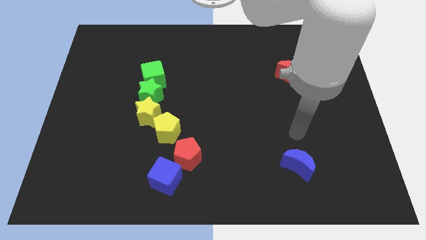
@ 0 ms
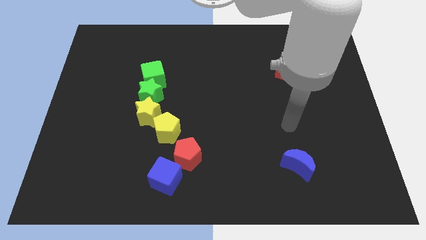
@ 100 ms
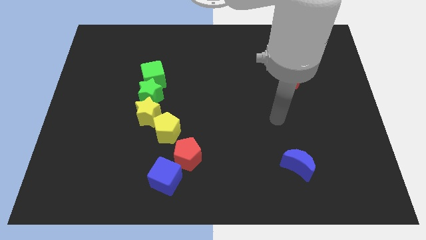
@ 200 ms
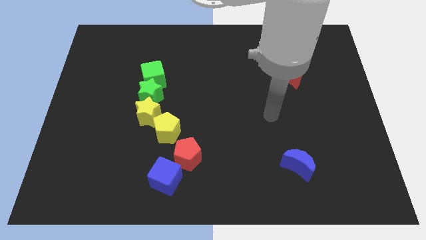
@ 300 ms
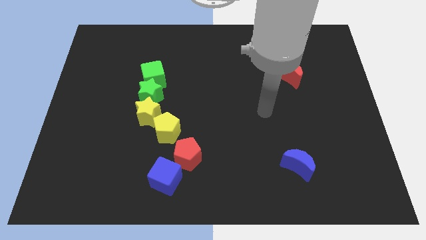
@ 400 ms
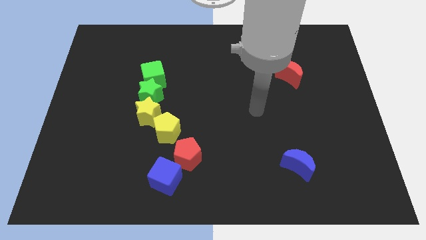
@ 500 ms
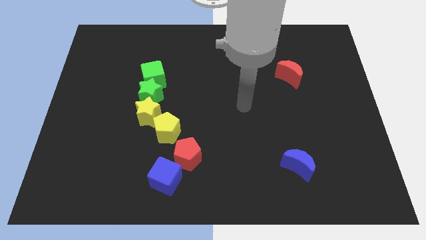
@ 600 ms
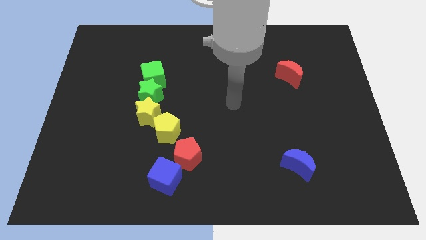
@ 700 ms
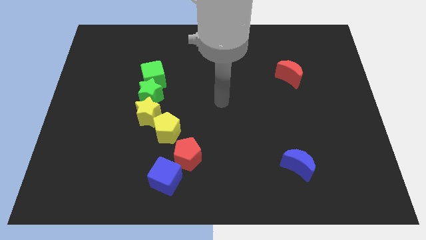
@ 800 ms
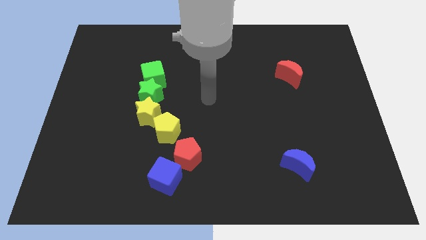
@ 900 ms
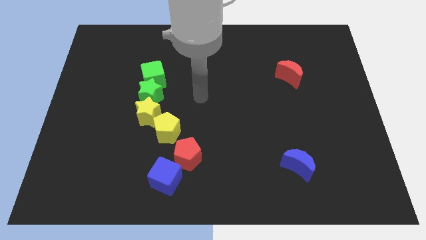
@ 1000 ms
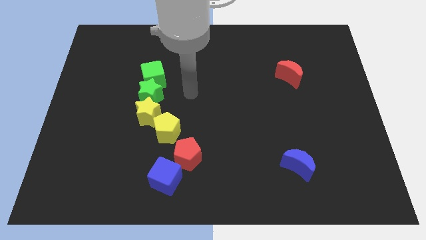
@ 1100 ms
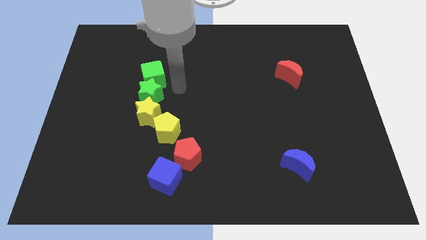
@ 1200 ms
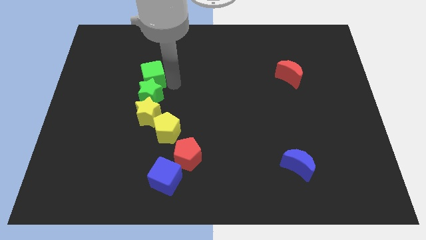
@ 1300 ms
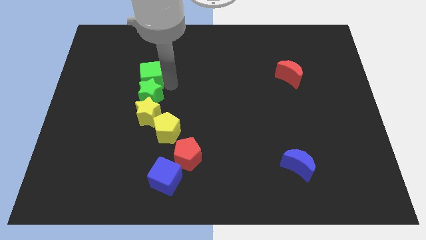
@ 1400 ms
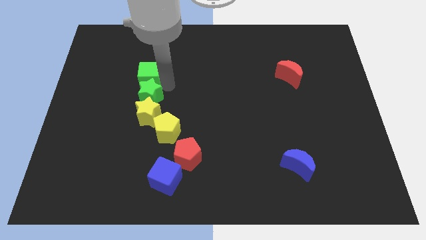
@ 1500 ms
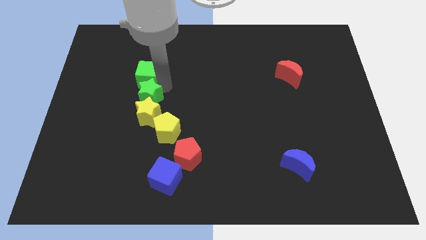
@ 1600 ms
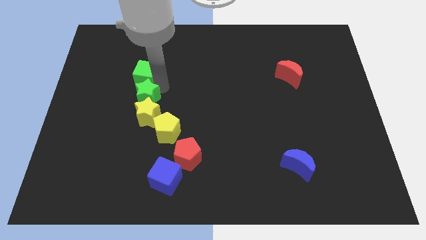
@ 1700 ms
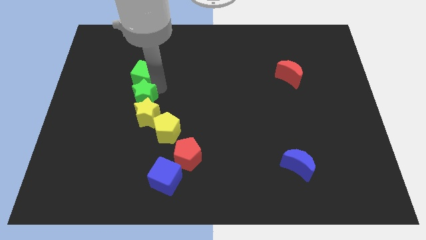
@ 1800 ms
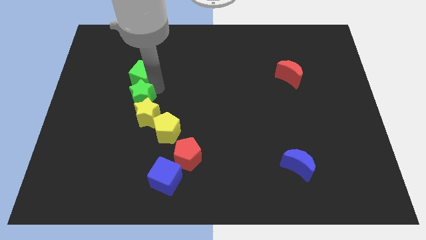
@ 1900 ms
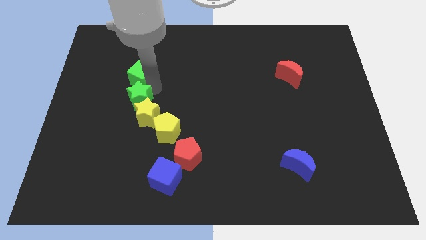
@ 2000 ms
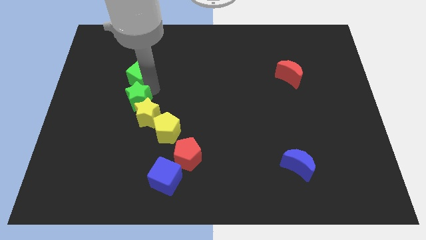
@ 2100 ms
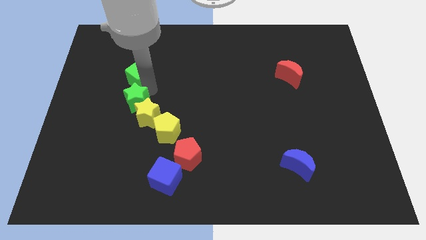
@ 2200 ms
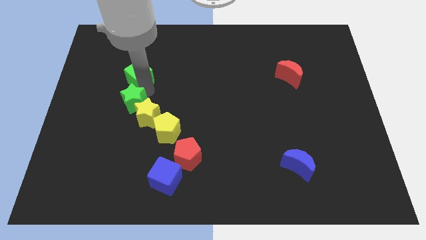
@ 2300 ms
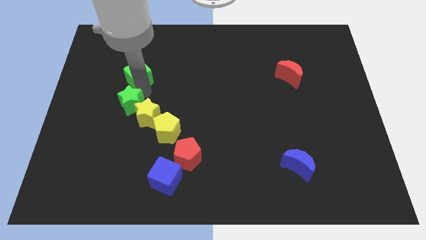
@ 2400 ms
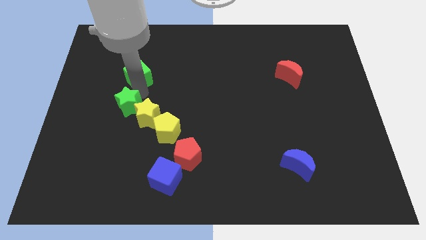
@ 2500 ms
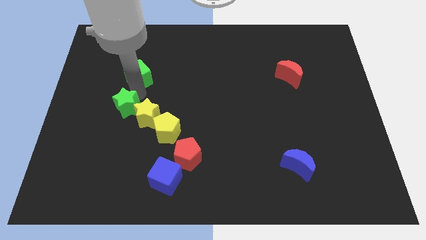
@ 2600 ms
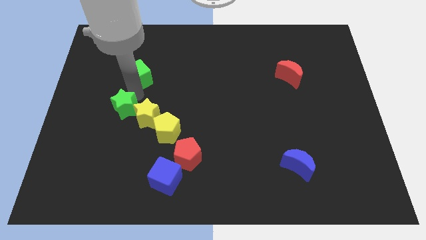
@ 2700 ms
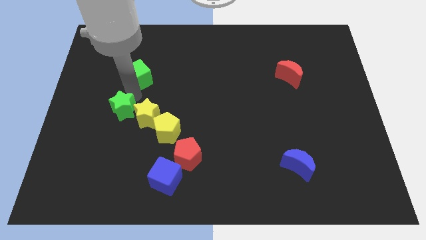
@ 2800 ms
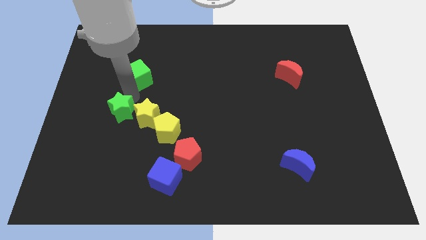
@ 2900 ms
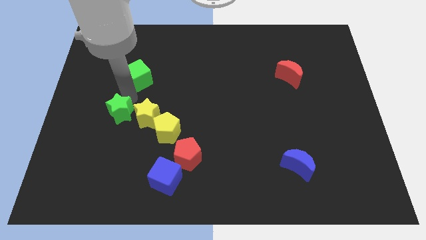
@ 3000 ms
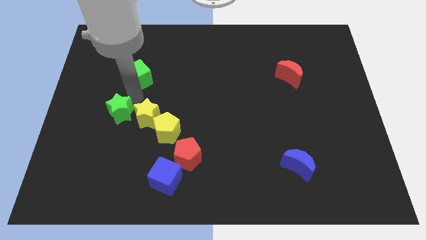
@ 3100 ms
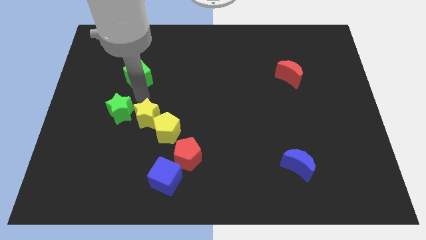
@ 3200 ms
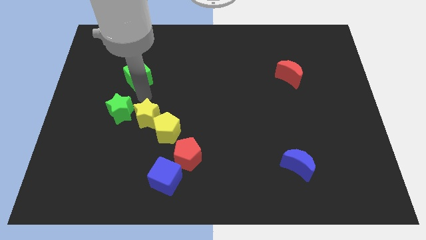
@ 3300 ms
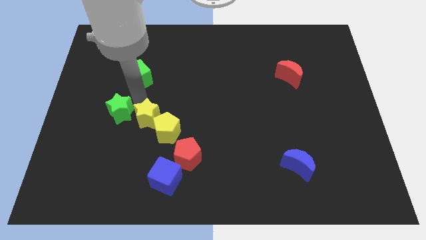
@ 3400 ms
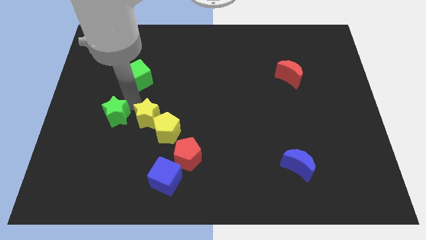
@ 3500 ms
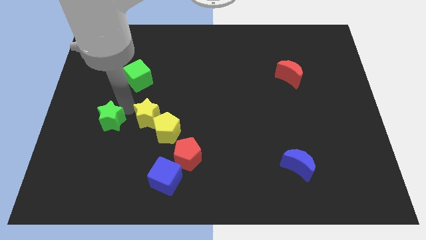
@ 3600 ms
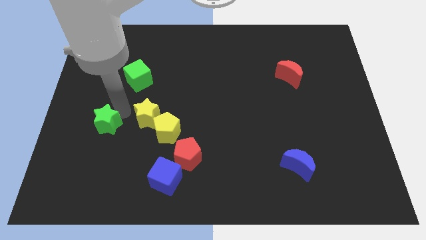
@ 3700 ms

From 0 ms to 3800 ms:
pull the green star apart from the yellow star and green cube

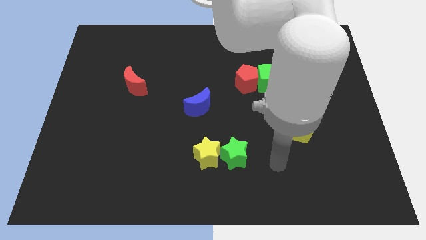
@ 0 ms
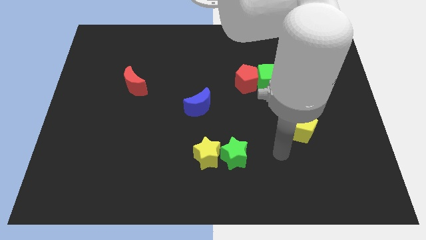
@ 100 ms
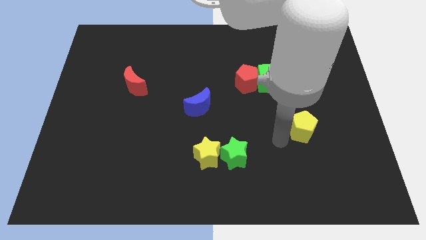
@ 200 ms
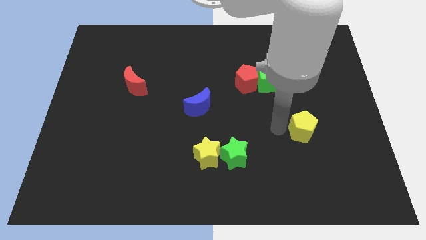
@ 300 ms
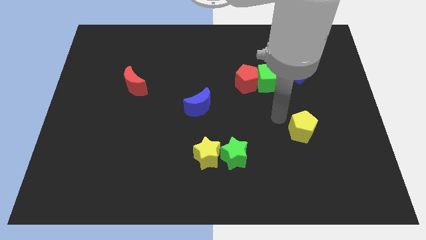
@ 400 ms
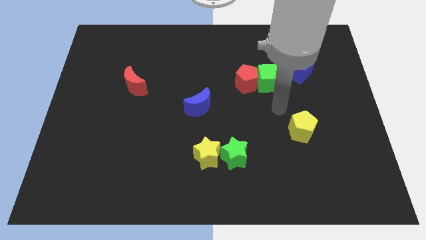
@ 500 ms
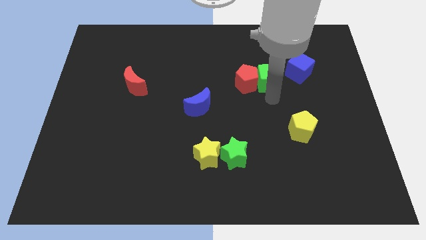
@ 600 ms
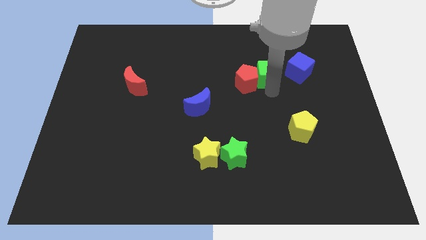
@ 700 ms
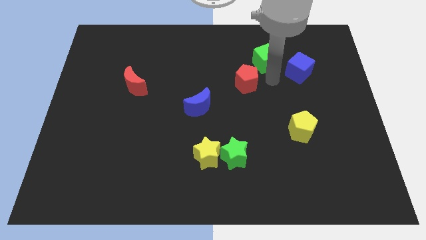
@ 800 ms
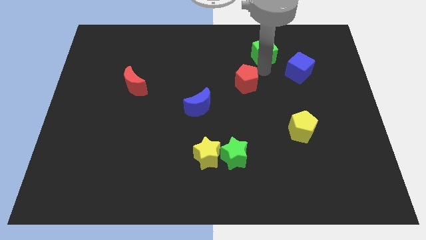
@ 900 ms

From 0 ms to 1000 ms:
separate the red pentagon from the green cube

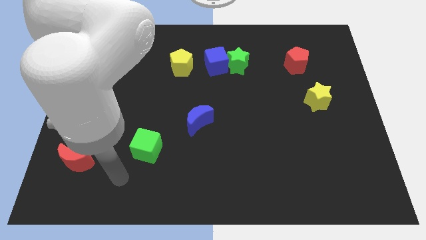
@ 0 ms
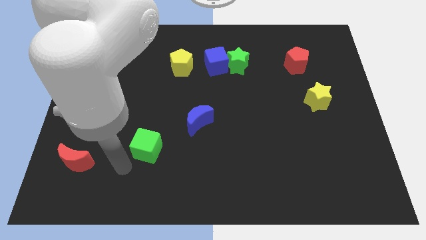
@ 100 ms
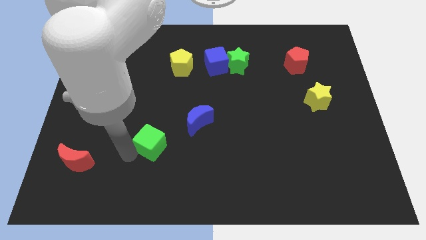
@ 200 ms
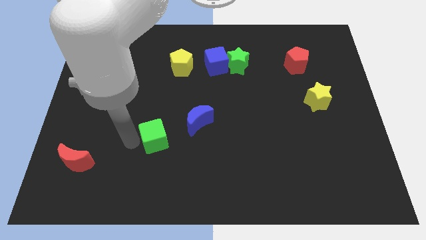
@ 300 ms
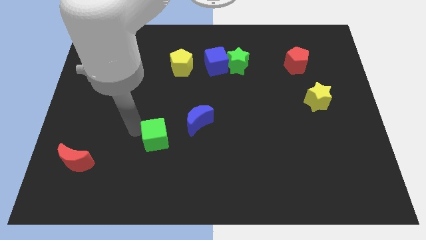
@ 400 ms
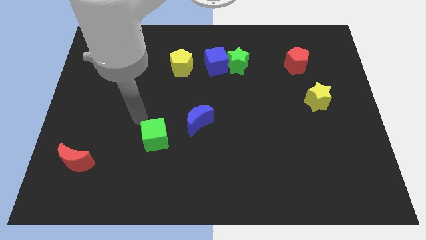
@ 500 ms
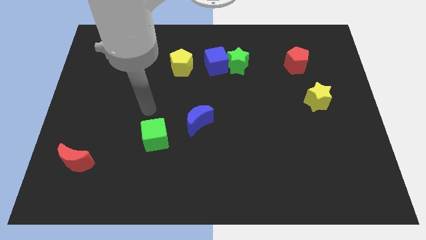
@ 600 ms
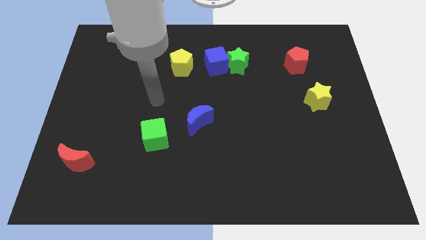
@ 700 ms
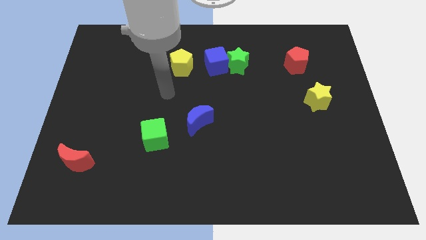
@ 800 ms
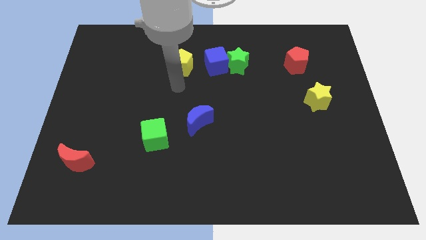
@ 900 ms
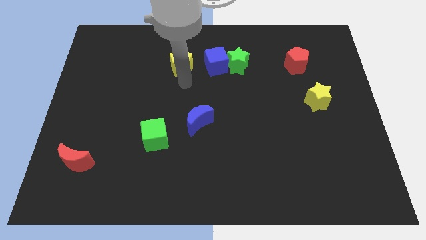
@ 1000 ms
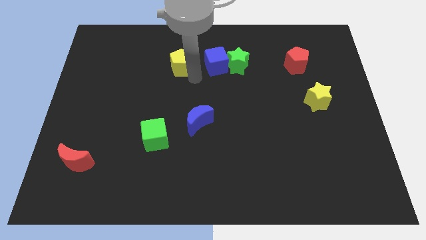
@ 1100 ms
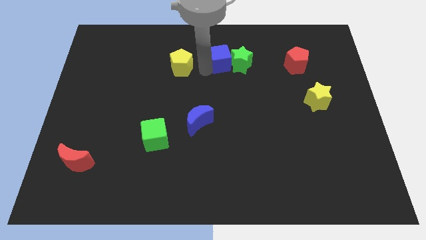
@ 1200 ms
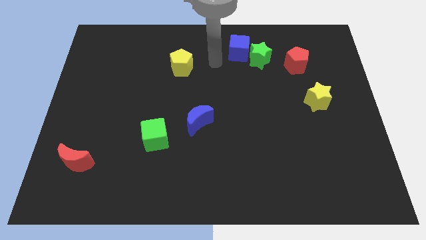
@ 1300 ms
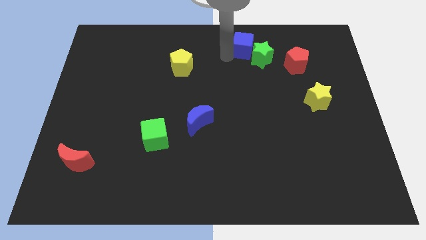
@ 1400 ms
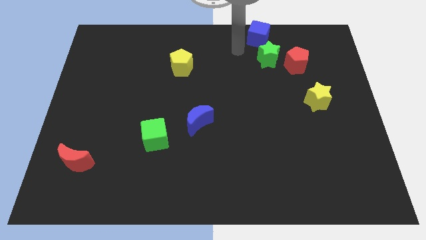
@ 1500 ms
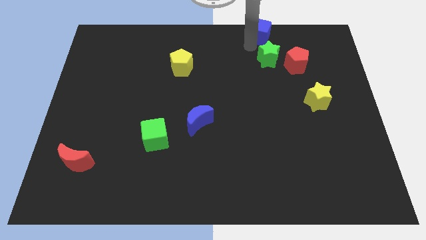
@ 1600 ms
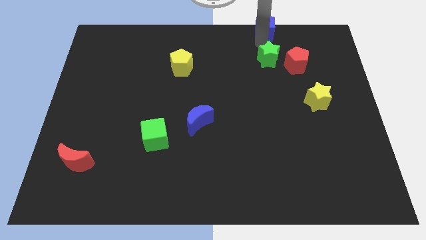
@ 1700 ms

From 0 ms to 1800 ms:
move the green star away from the blue cube

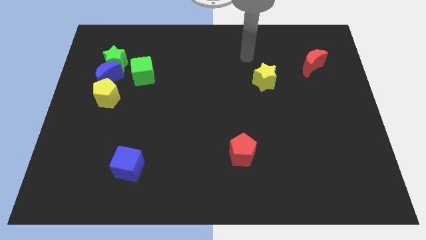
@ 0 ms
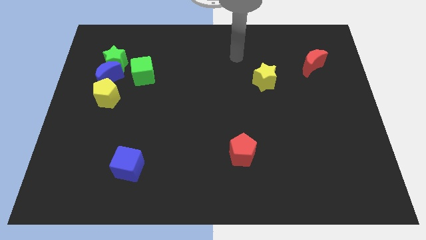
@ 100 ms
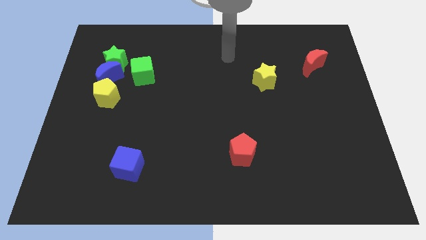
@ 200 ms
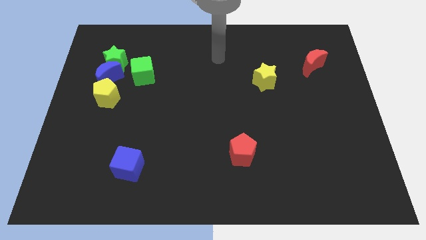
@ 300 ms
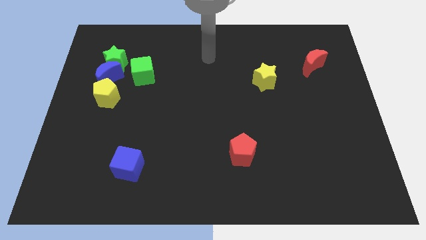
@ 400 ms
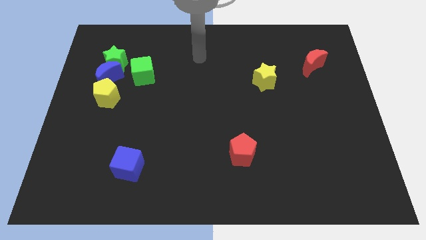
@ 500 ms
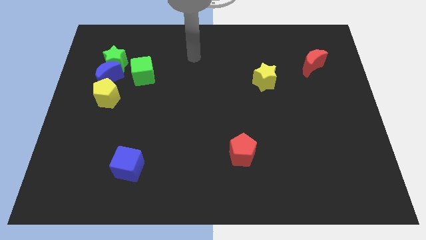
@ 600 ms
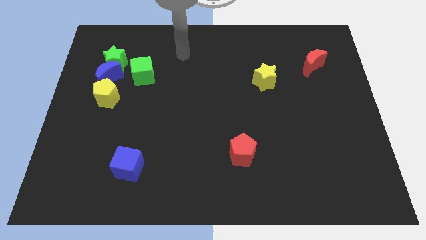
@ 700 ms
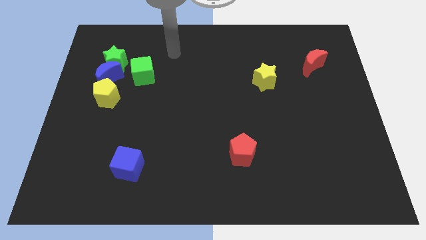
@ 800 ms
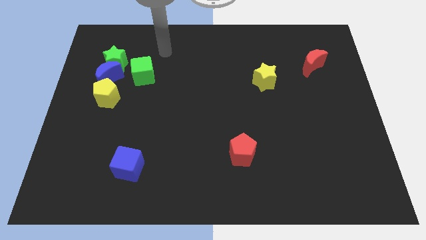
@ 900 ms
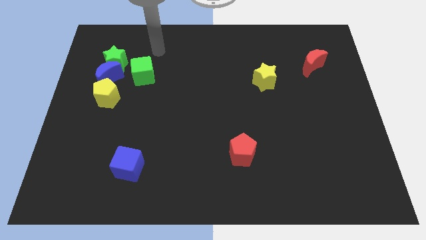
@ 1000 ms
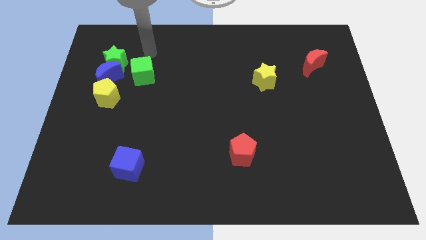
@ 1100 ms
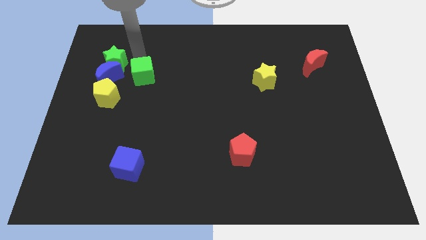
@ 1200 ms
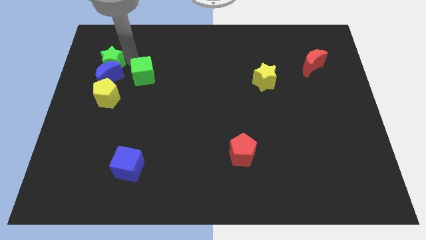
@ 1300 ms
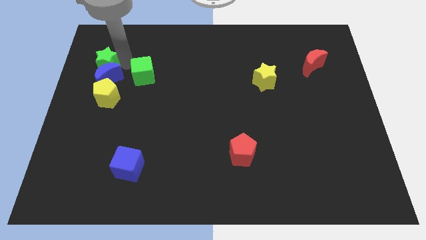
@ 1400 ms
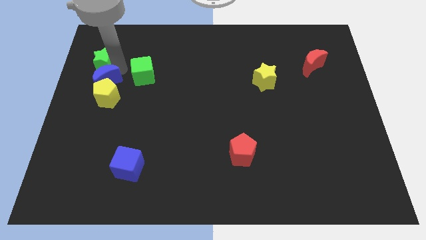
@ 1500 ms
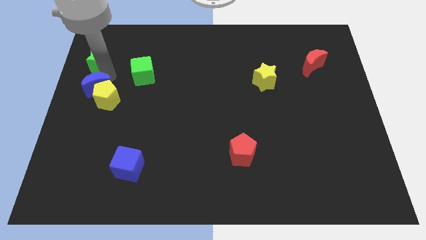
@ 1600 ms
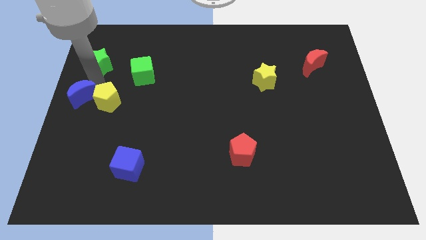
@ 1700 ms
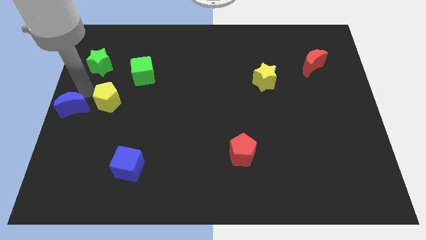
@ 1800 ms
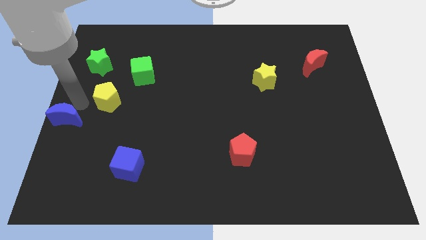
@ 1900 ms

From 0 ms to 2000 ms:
move the yellow pentagon away from the blue moon

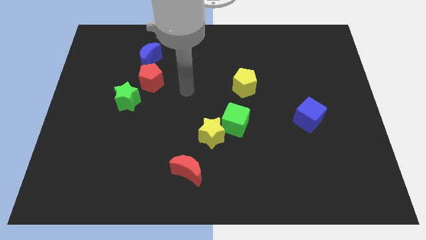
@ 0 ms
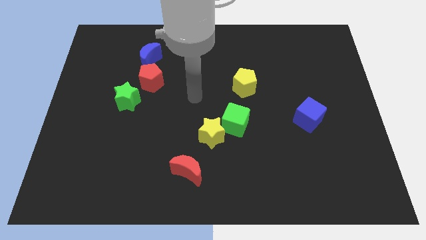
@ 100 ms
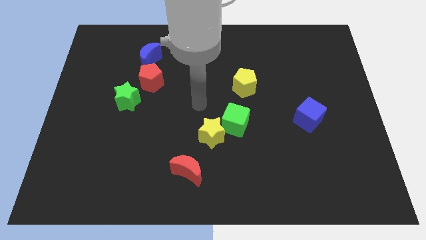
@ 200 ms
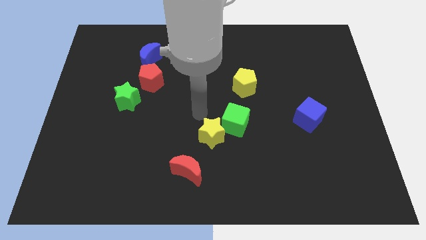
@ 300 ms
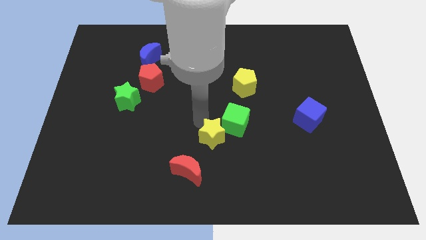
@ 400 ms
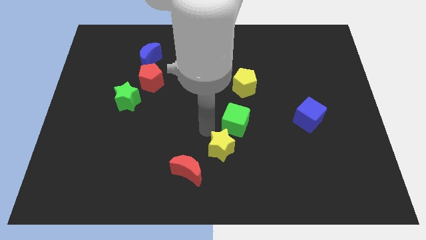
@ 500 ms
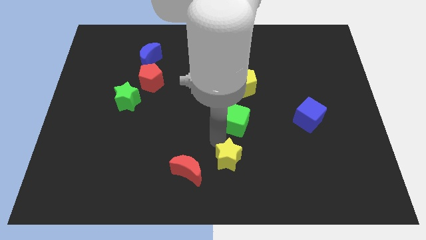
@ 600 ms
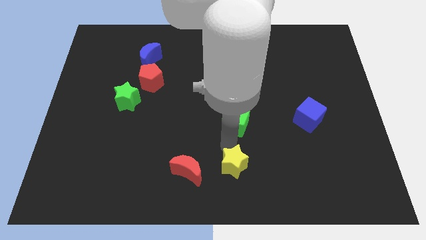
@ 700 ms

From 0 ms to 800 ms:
pull the green cube apart from the yellow star
